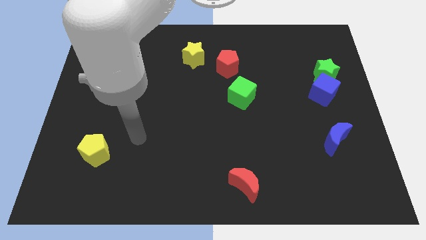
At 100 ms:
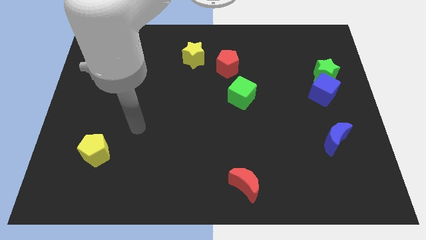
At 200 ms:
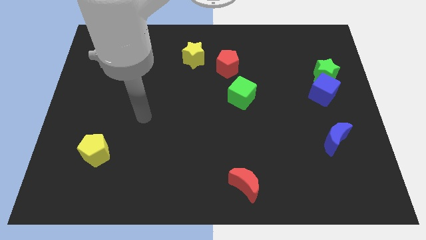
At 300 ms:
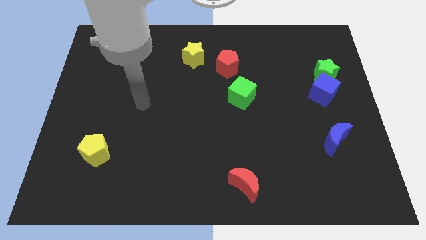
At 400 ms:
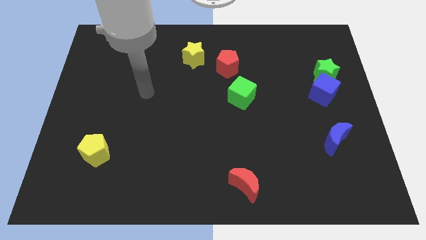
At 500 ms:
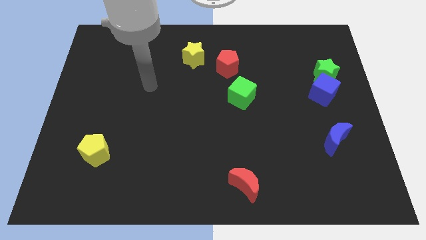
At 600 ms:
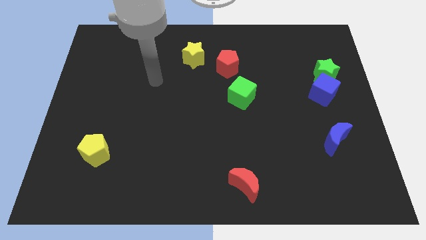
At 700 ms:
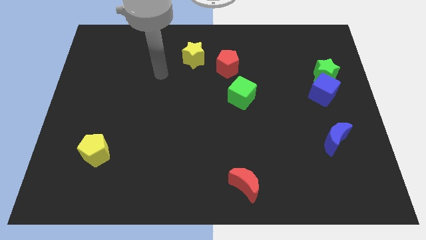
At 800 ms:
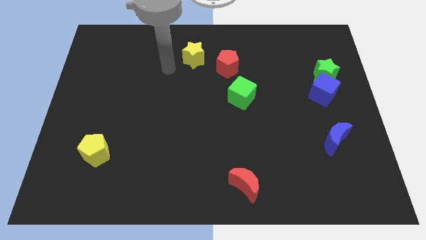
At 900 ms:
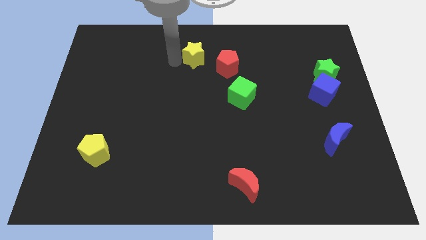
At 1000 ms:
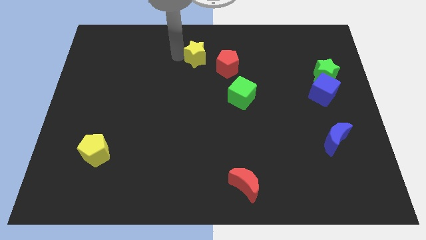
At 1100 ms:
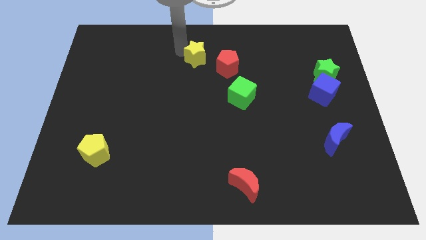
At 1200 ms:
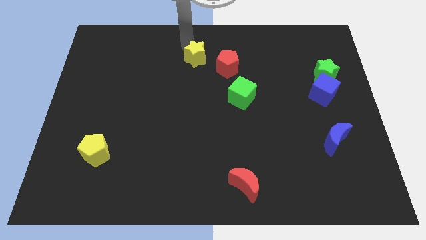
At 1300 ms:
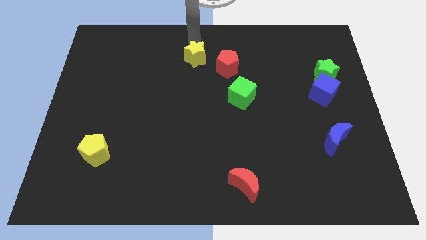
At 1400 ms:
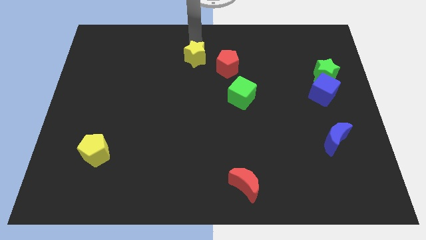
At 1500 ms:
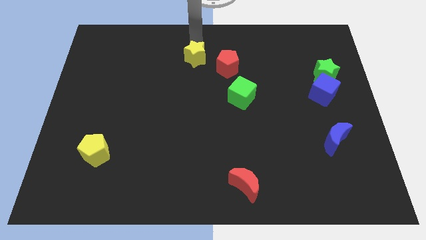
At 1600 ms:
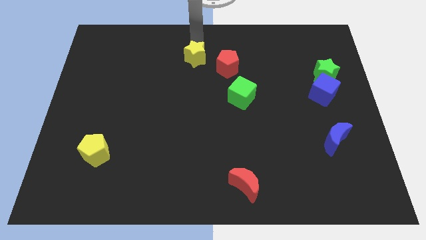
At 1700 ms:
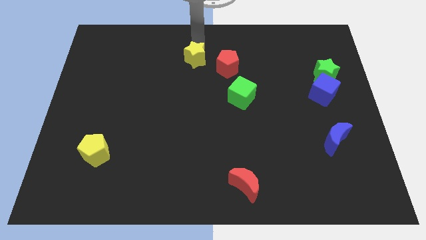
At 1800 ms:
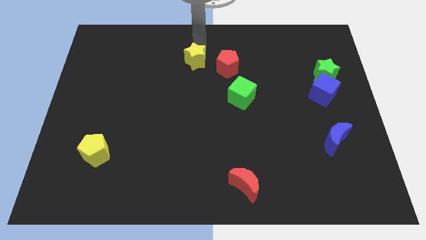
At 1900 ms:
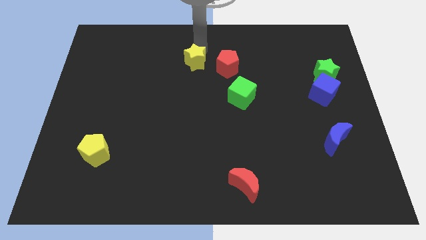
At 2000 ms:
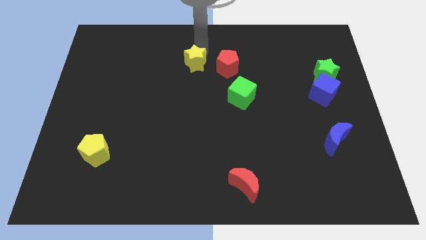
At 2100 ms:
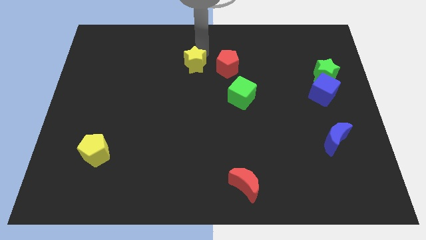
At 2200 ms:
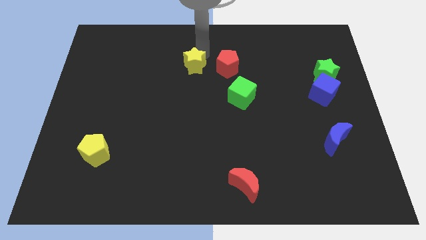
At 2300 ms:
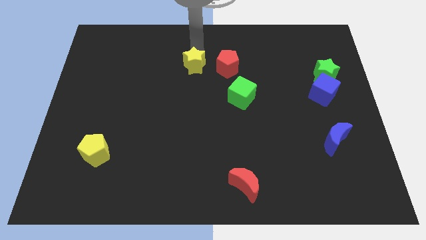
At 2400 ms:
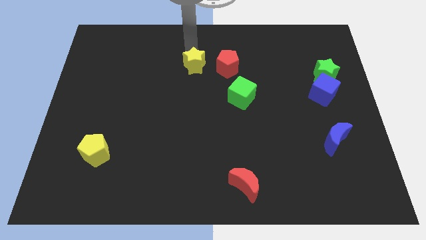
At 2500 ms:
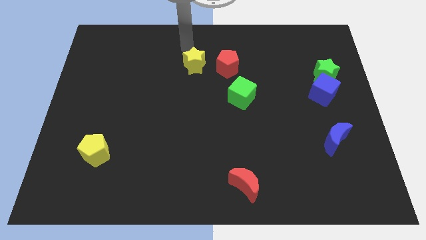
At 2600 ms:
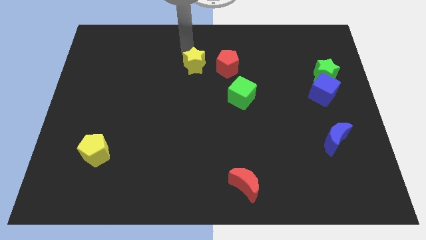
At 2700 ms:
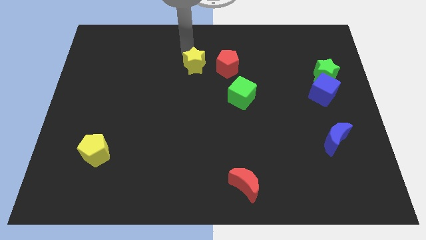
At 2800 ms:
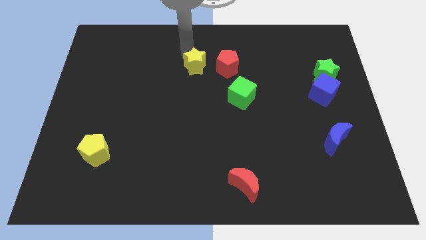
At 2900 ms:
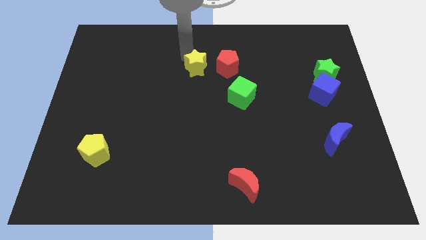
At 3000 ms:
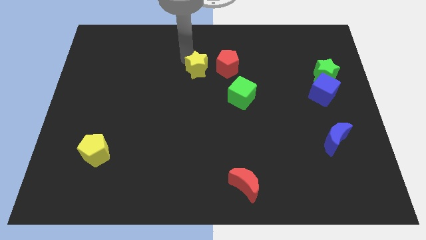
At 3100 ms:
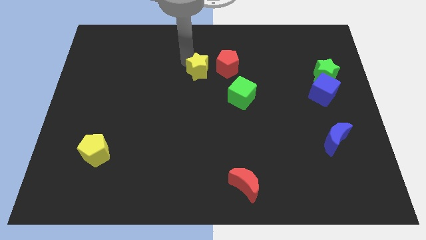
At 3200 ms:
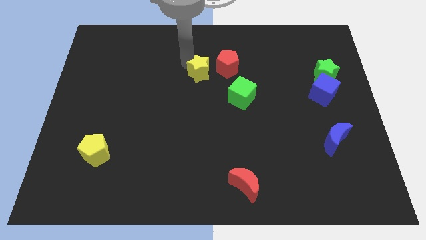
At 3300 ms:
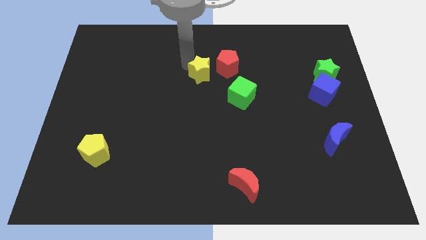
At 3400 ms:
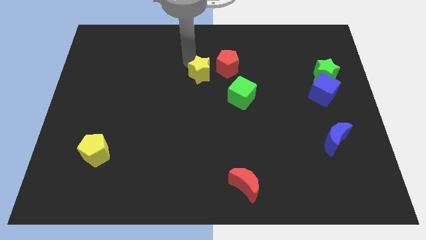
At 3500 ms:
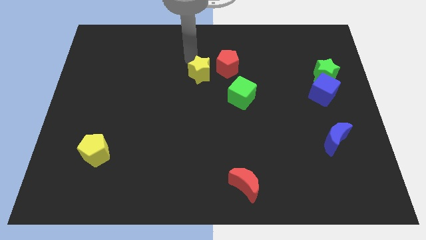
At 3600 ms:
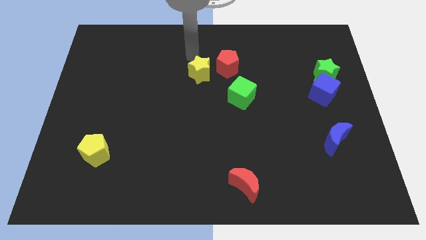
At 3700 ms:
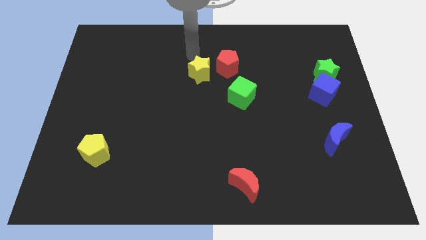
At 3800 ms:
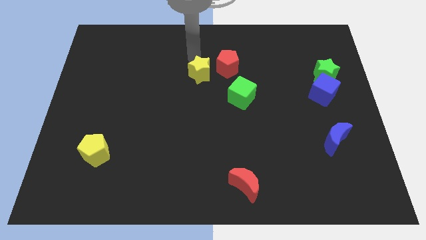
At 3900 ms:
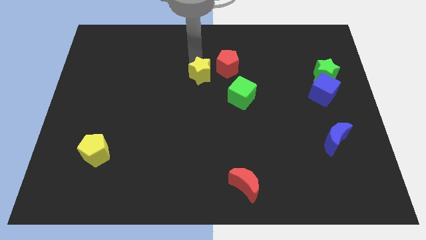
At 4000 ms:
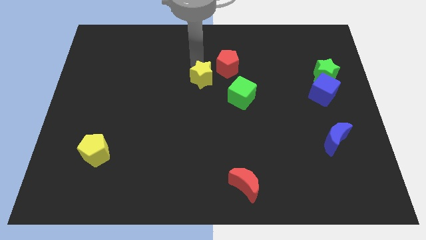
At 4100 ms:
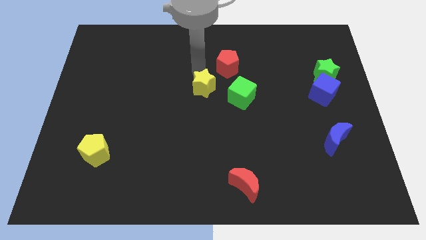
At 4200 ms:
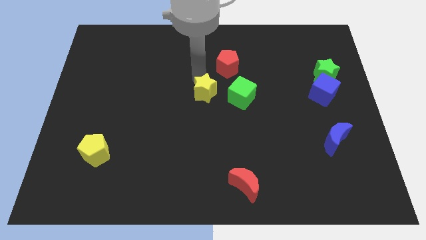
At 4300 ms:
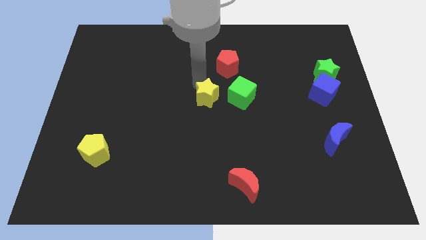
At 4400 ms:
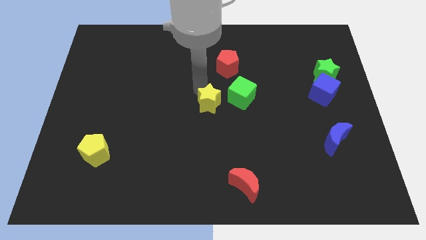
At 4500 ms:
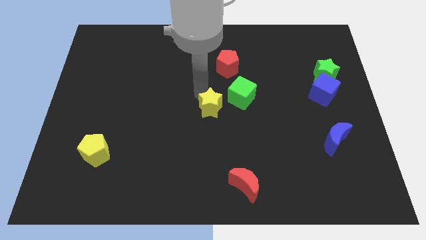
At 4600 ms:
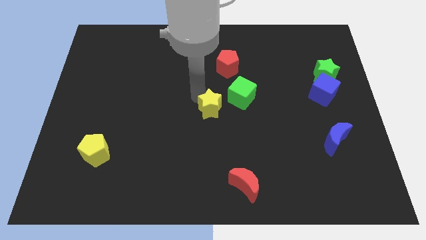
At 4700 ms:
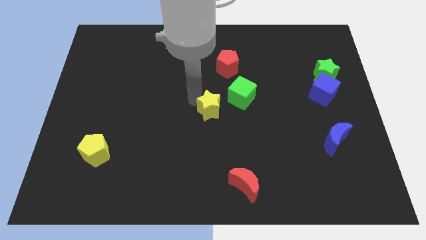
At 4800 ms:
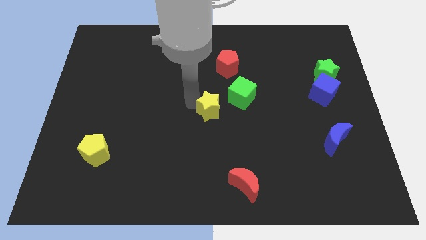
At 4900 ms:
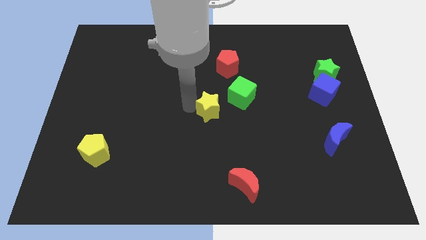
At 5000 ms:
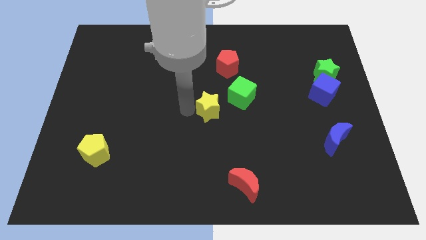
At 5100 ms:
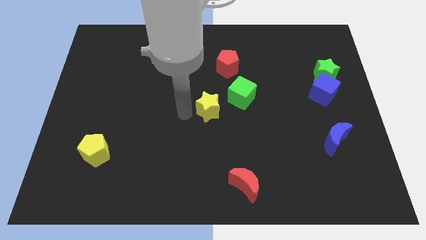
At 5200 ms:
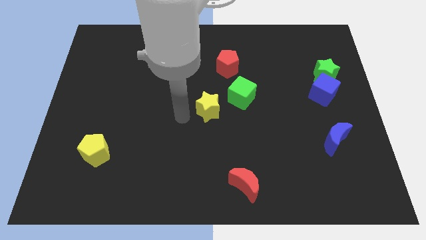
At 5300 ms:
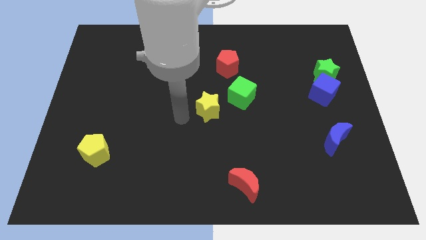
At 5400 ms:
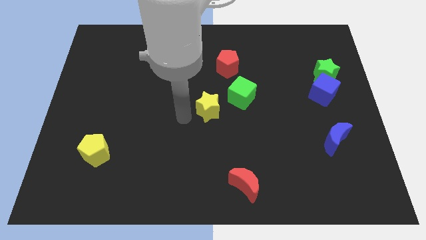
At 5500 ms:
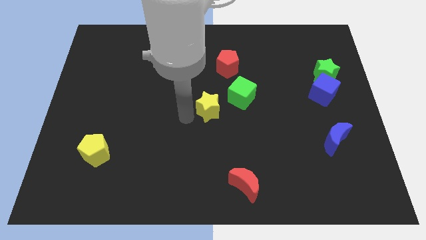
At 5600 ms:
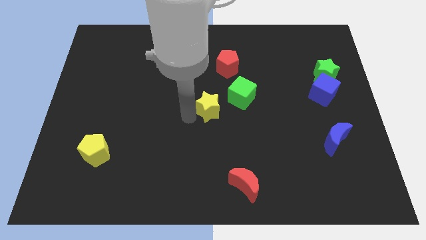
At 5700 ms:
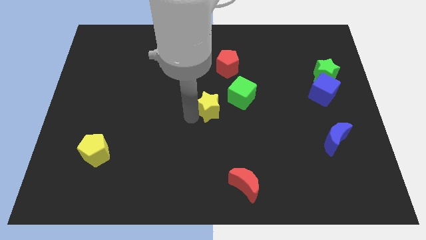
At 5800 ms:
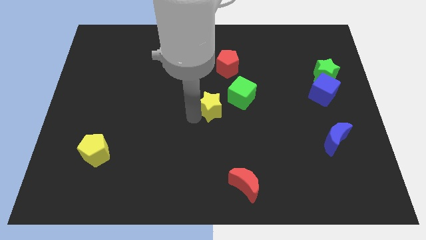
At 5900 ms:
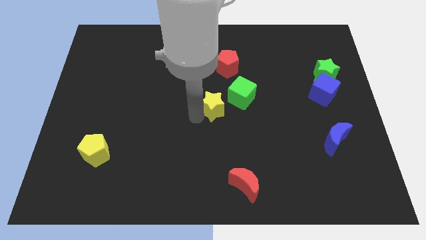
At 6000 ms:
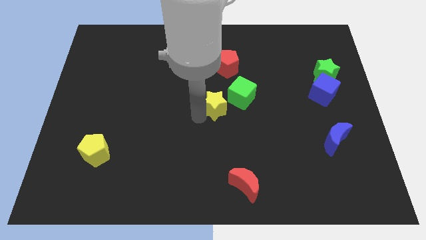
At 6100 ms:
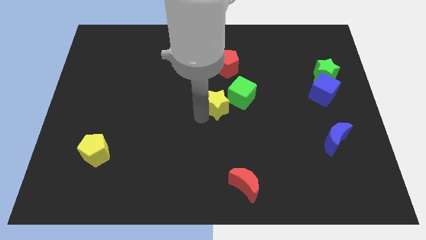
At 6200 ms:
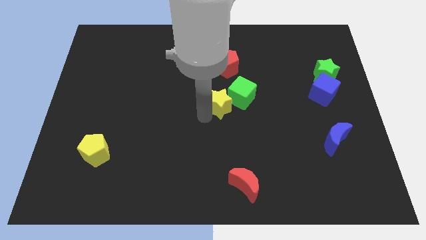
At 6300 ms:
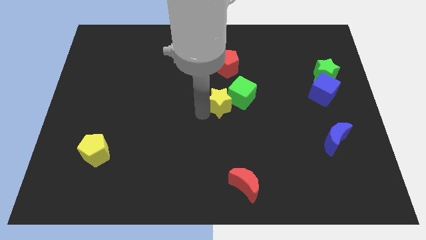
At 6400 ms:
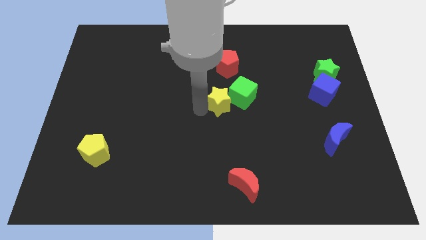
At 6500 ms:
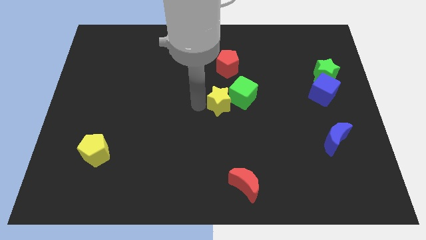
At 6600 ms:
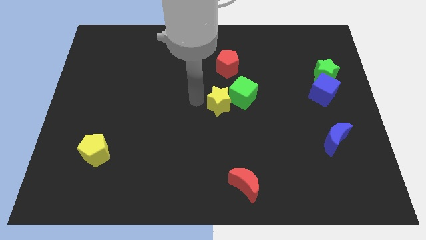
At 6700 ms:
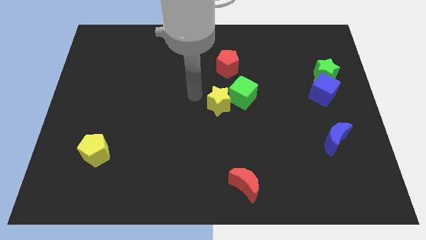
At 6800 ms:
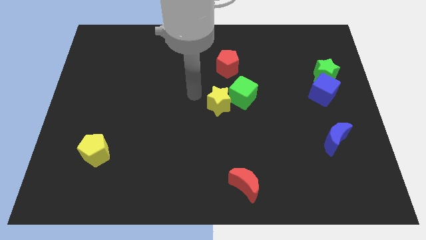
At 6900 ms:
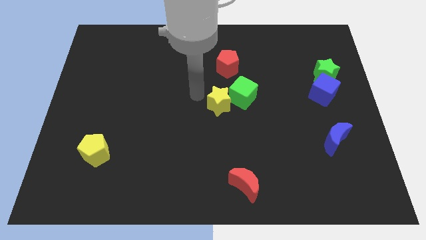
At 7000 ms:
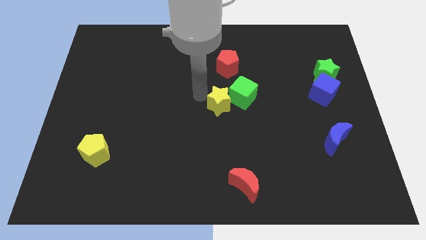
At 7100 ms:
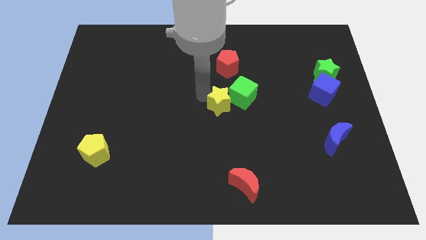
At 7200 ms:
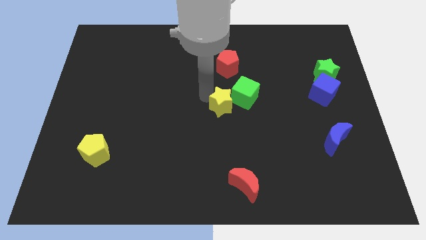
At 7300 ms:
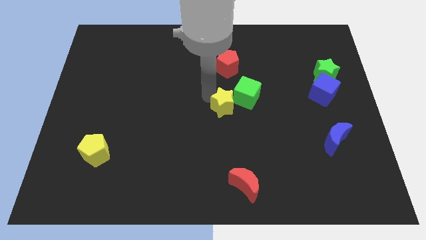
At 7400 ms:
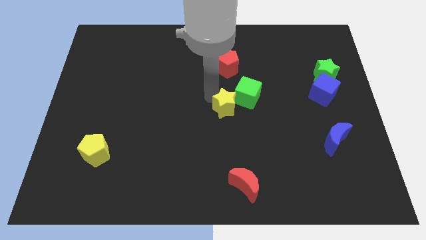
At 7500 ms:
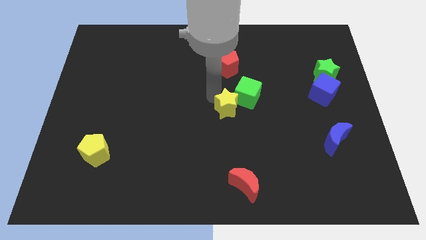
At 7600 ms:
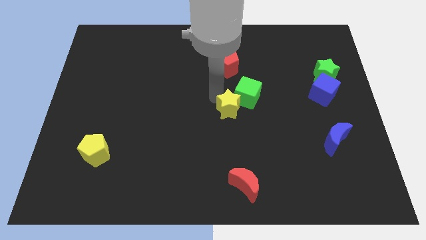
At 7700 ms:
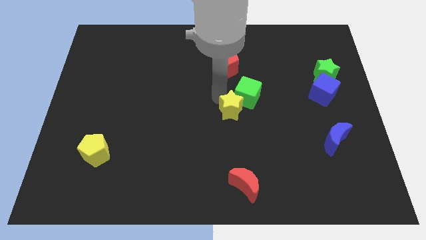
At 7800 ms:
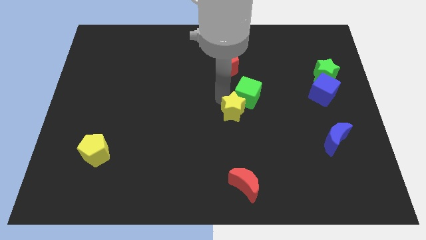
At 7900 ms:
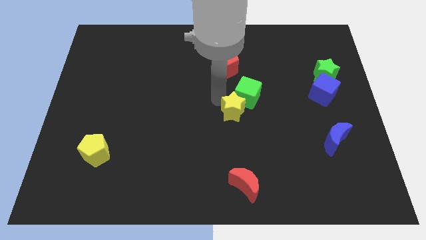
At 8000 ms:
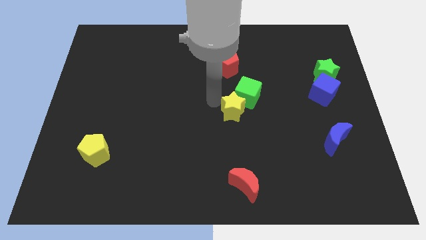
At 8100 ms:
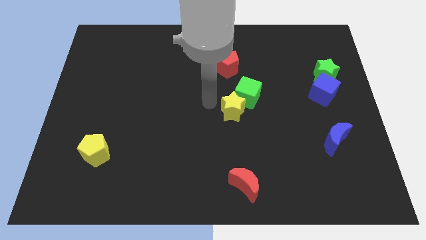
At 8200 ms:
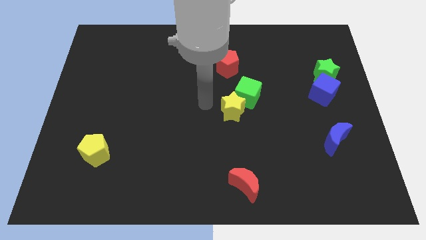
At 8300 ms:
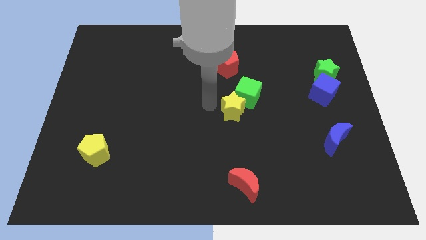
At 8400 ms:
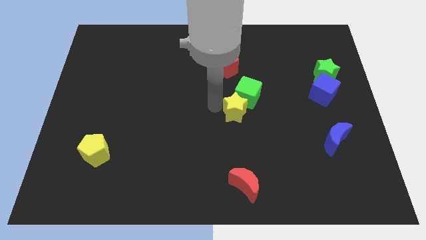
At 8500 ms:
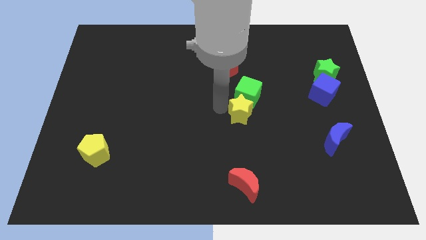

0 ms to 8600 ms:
slide the yellow star down and right
